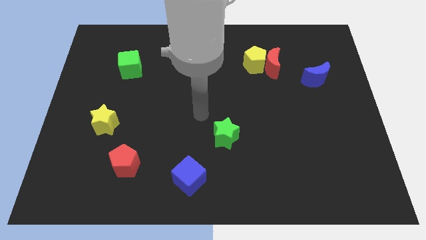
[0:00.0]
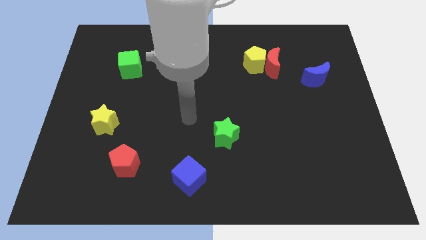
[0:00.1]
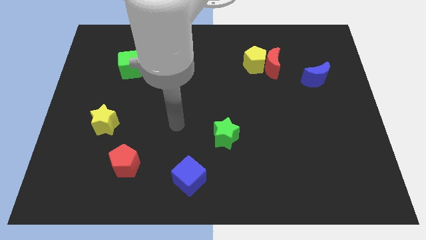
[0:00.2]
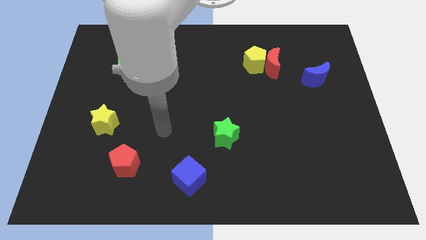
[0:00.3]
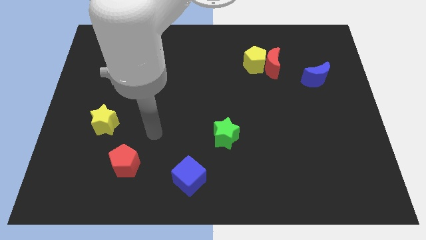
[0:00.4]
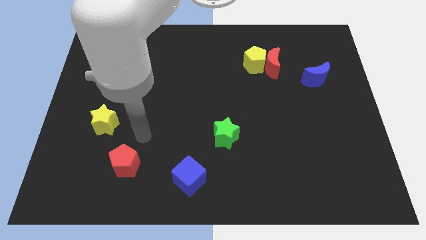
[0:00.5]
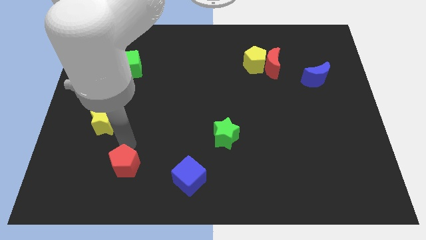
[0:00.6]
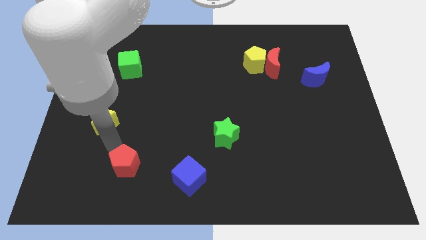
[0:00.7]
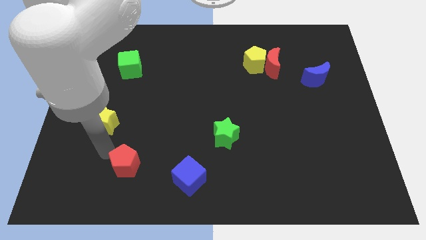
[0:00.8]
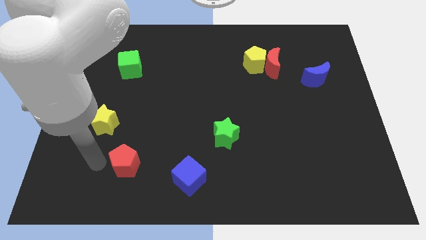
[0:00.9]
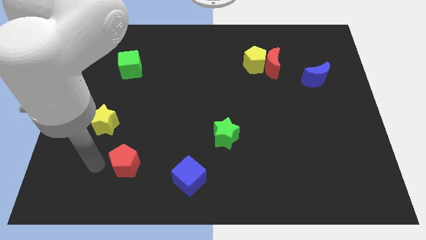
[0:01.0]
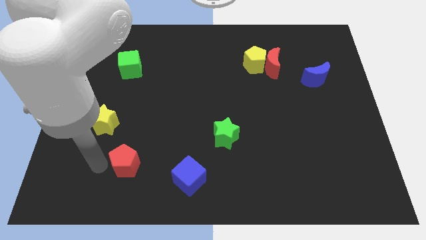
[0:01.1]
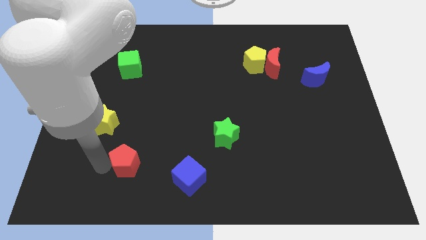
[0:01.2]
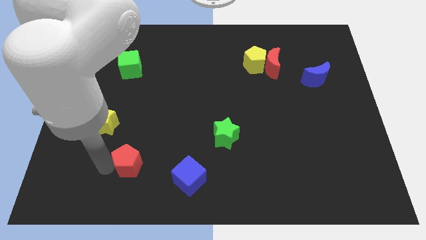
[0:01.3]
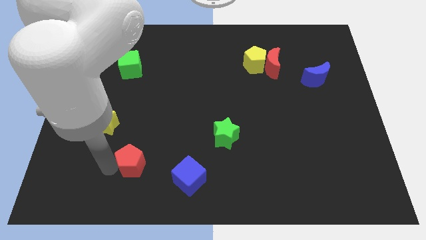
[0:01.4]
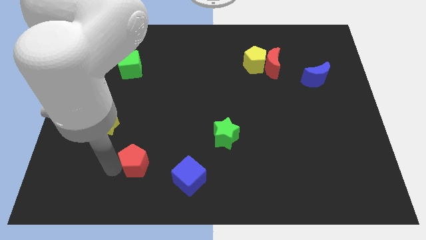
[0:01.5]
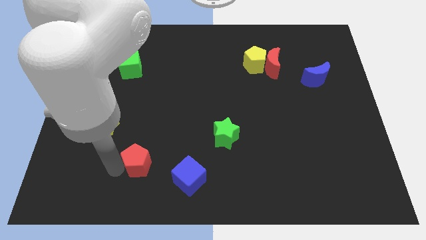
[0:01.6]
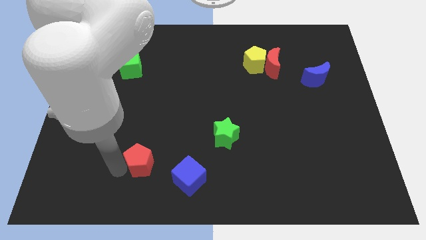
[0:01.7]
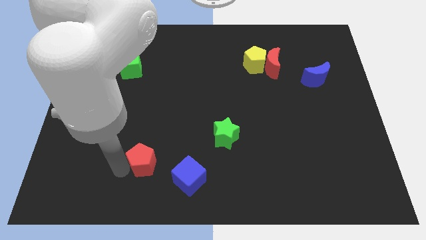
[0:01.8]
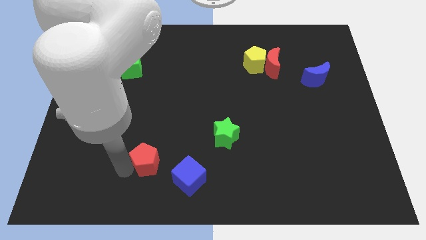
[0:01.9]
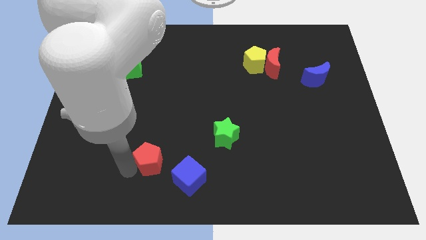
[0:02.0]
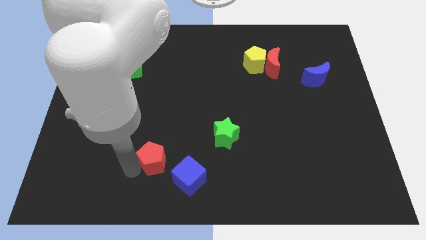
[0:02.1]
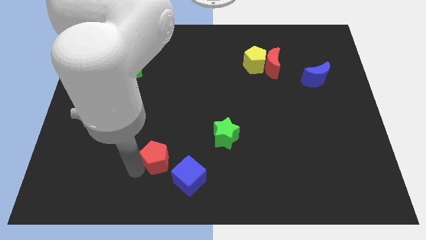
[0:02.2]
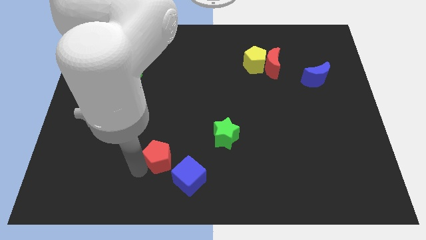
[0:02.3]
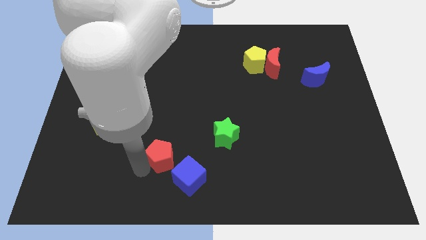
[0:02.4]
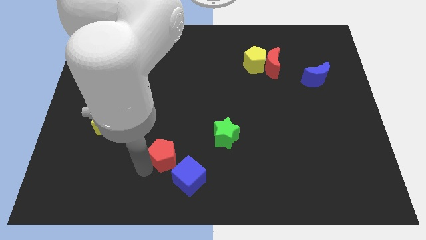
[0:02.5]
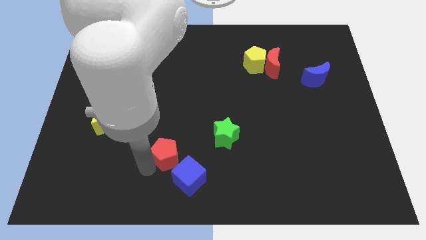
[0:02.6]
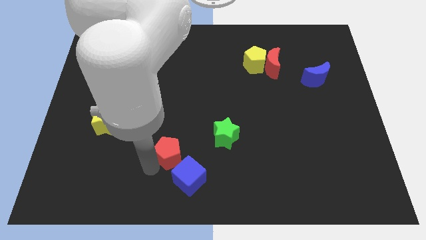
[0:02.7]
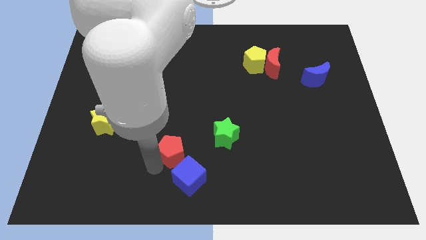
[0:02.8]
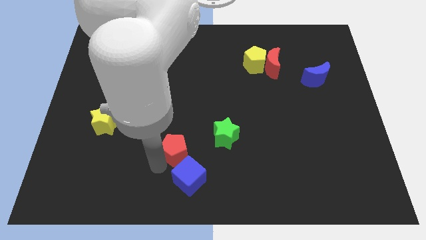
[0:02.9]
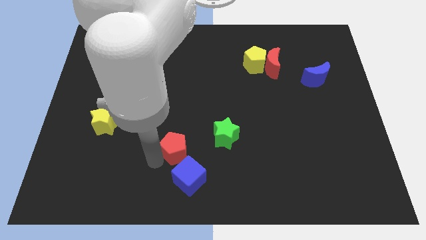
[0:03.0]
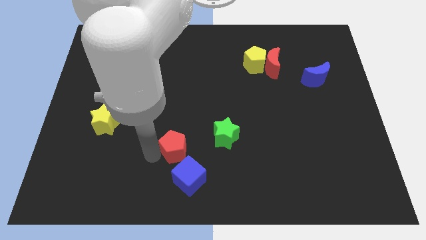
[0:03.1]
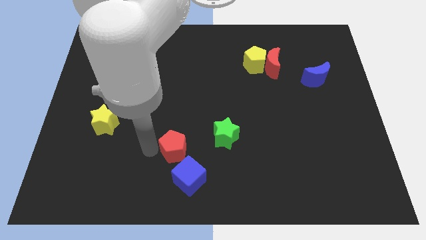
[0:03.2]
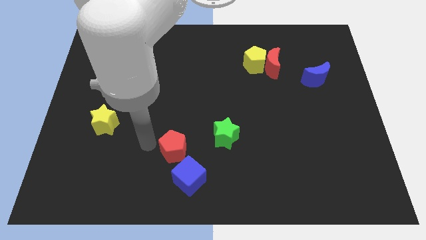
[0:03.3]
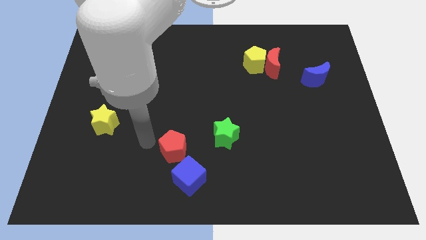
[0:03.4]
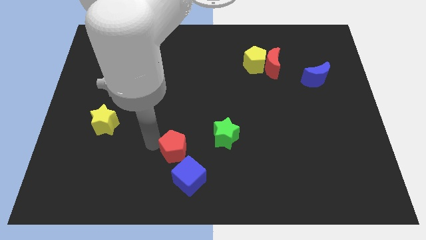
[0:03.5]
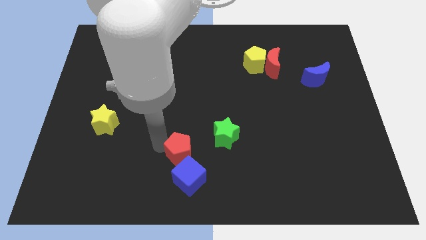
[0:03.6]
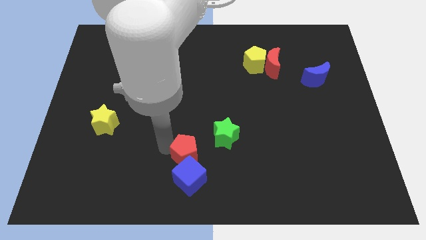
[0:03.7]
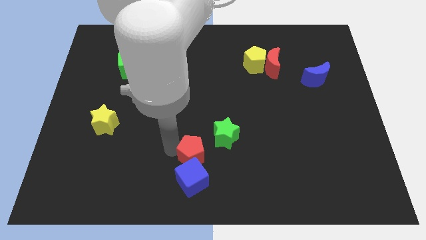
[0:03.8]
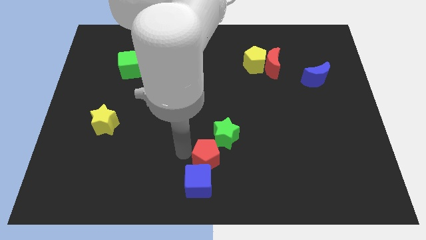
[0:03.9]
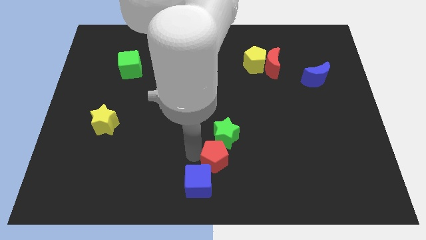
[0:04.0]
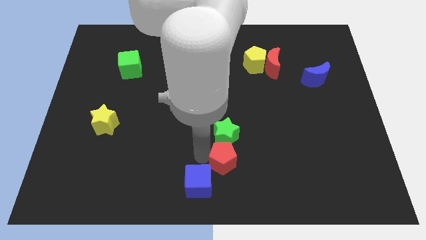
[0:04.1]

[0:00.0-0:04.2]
move the red pentagon right

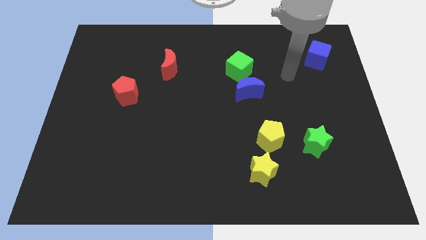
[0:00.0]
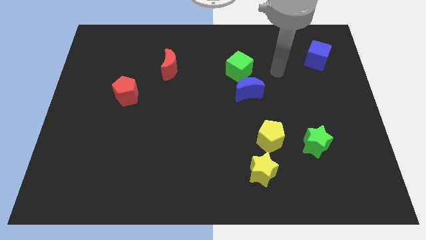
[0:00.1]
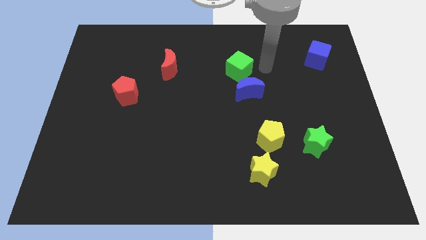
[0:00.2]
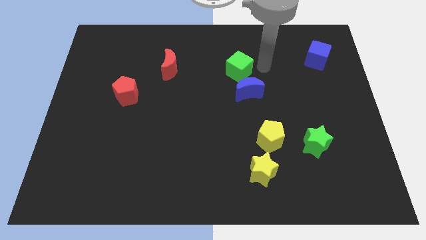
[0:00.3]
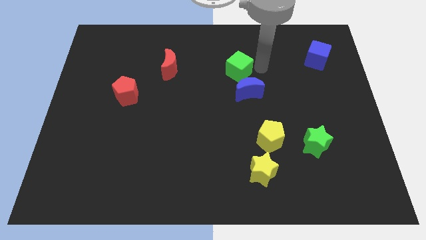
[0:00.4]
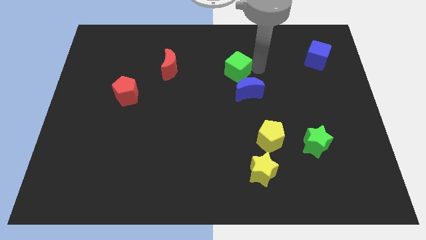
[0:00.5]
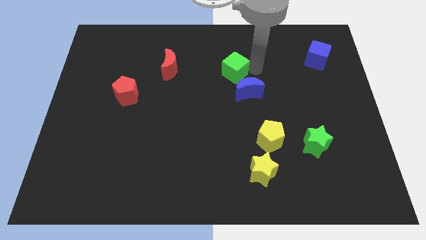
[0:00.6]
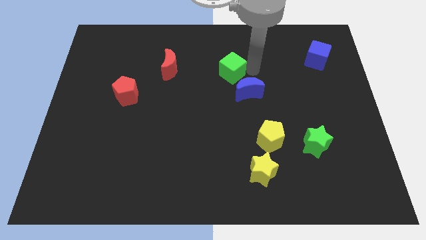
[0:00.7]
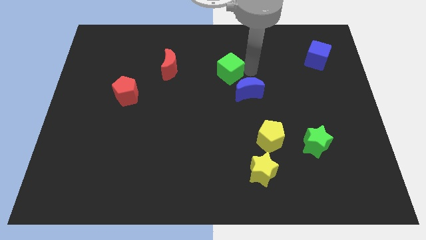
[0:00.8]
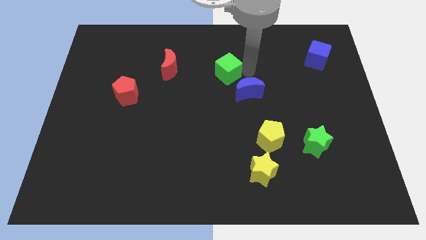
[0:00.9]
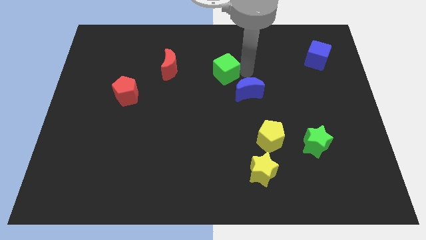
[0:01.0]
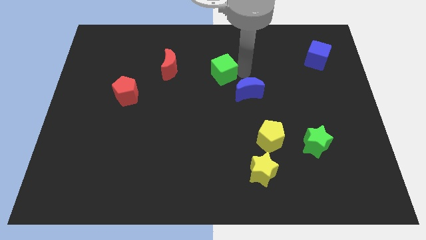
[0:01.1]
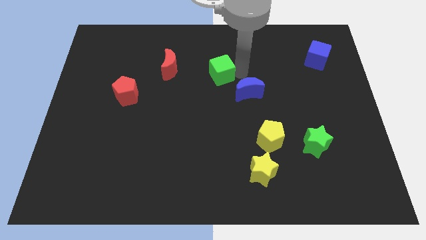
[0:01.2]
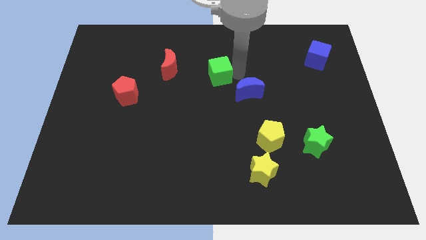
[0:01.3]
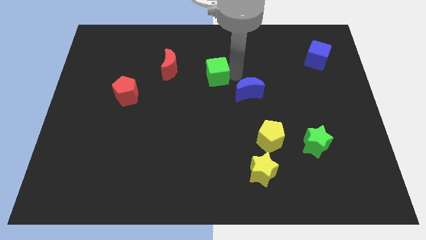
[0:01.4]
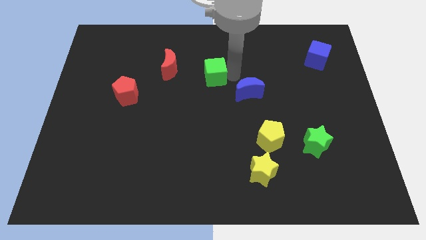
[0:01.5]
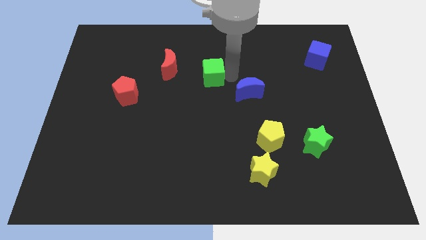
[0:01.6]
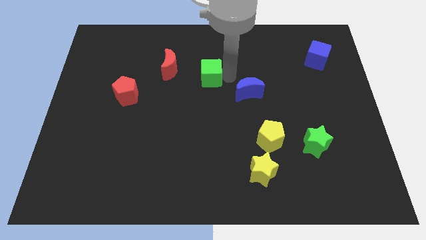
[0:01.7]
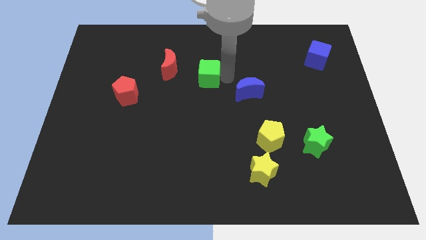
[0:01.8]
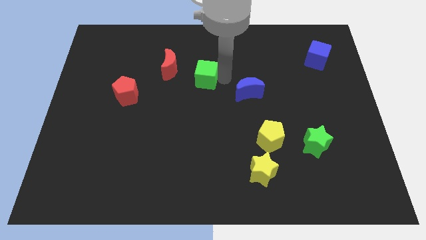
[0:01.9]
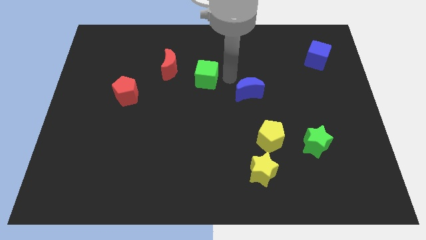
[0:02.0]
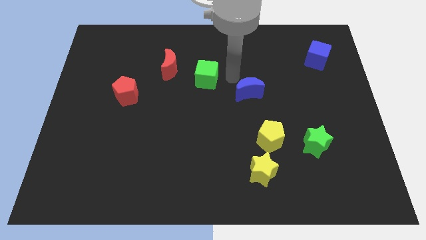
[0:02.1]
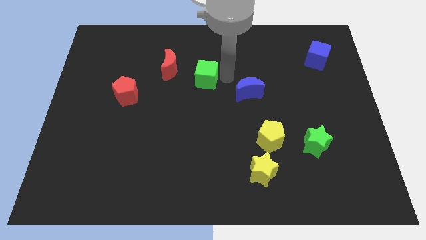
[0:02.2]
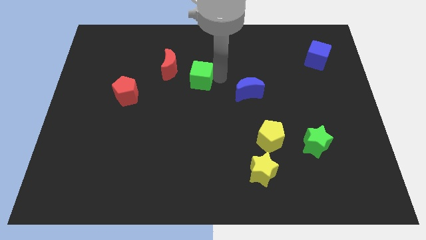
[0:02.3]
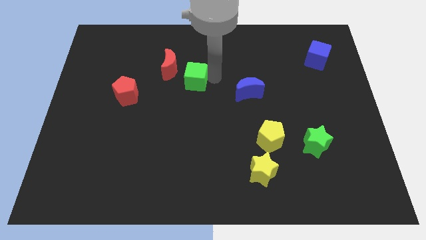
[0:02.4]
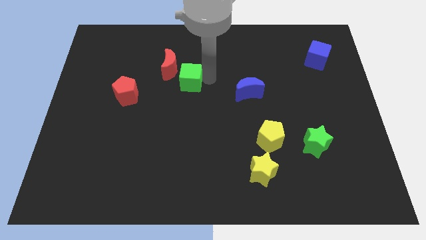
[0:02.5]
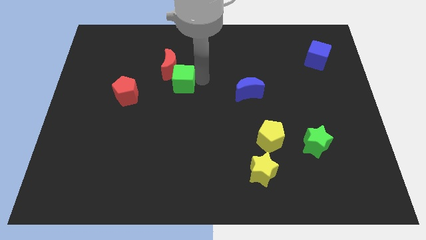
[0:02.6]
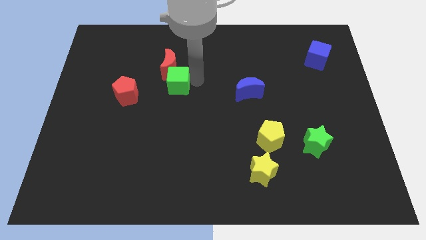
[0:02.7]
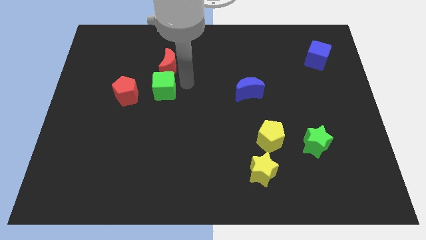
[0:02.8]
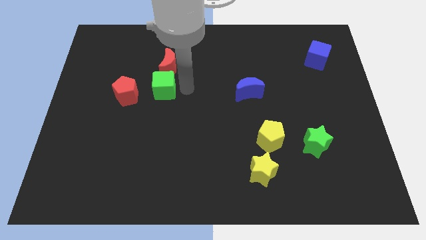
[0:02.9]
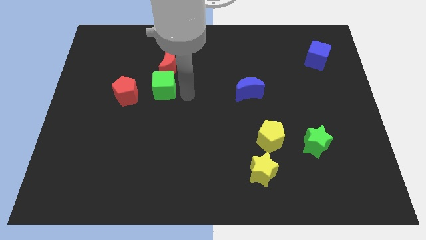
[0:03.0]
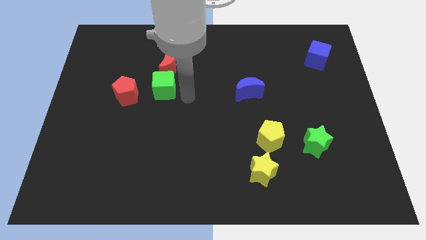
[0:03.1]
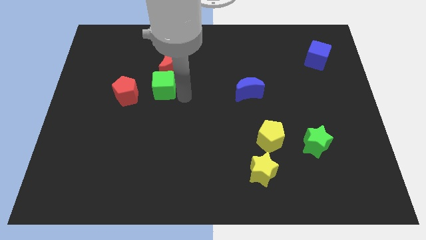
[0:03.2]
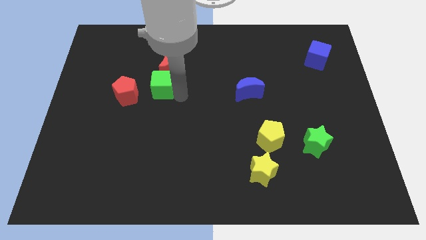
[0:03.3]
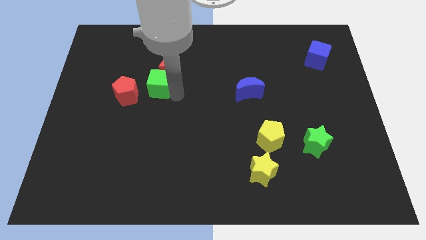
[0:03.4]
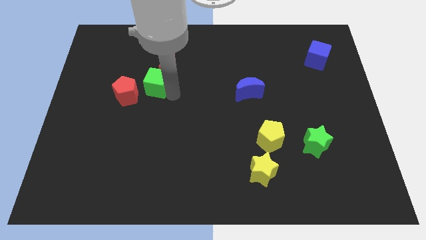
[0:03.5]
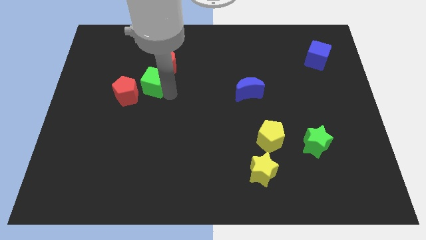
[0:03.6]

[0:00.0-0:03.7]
move the green cube left
